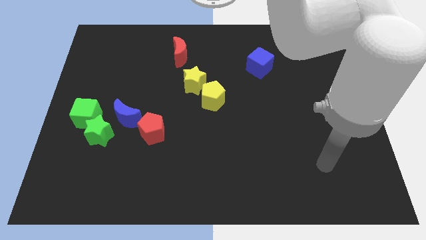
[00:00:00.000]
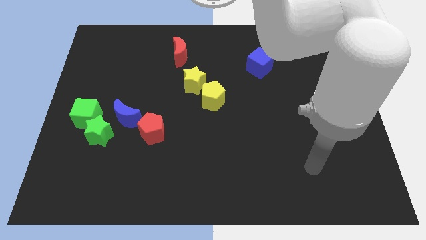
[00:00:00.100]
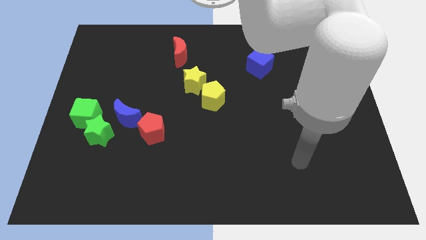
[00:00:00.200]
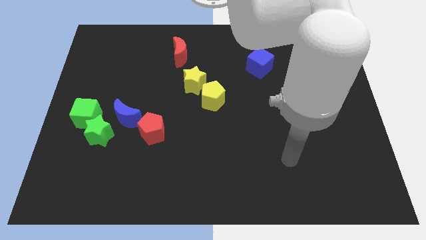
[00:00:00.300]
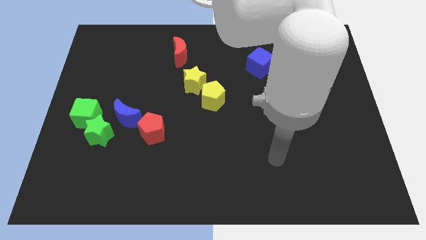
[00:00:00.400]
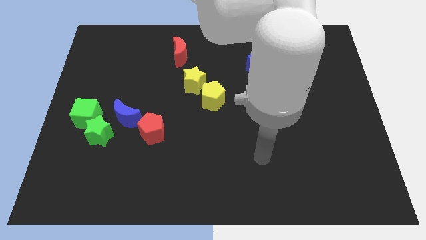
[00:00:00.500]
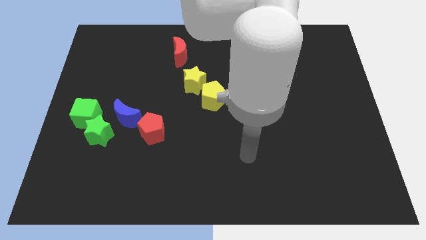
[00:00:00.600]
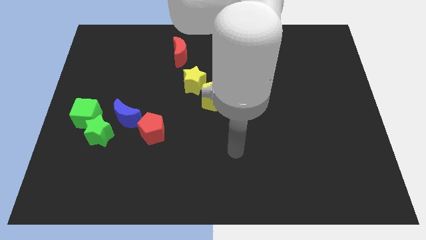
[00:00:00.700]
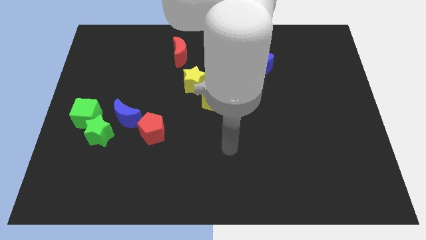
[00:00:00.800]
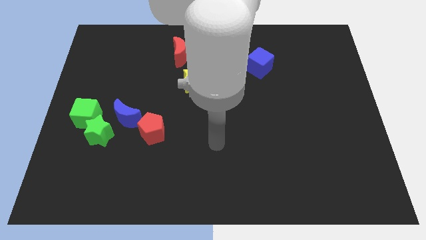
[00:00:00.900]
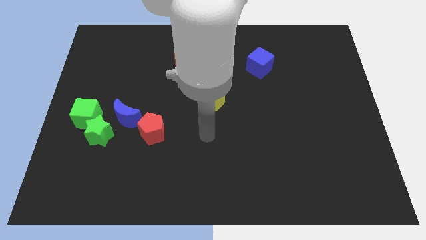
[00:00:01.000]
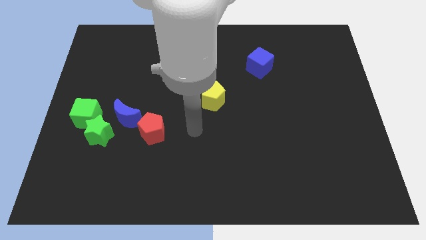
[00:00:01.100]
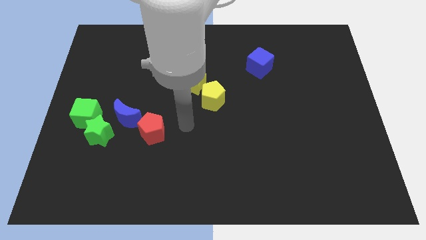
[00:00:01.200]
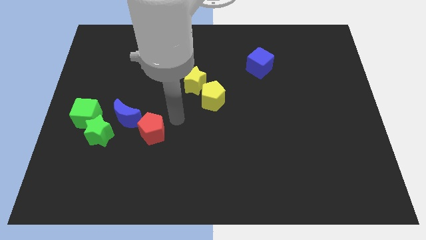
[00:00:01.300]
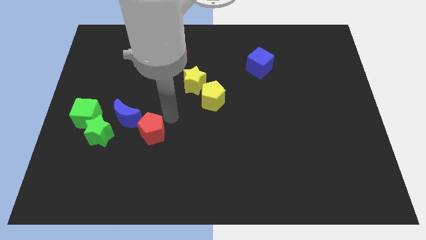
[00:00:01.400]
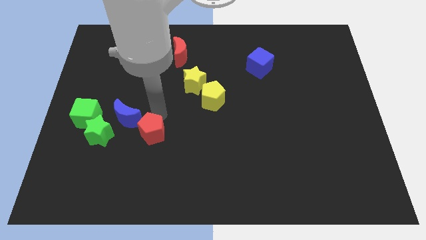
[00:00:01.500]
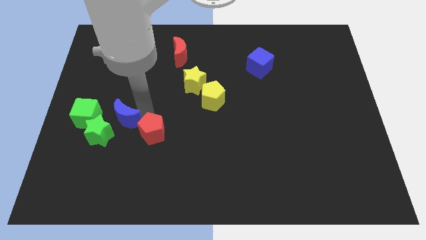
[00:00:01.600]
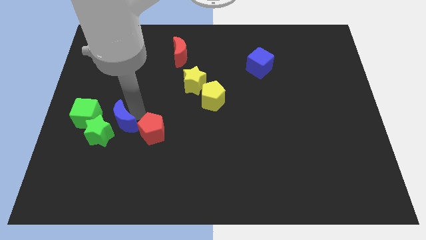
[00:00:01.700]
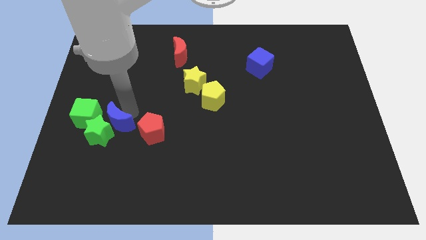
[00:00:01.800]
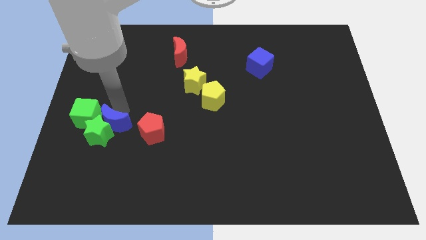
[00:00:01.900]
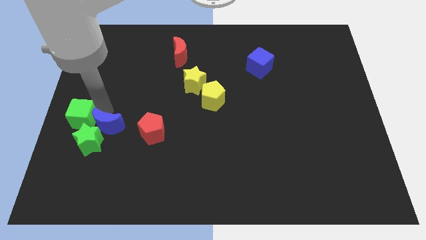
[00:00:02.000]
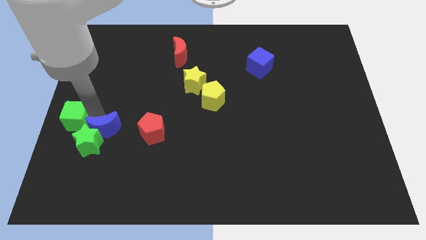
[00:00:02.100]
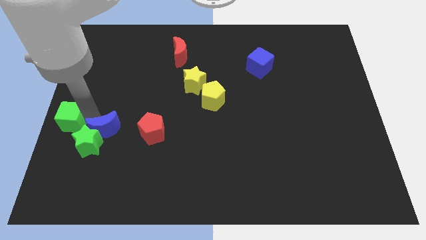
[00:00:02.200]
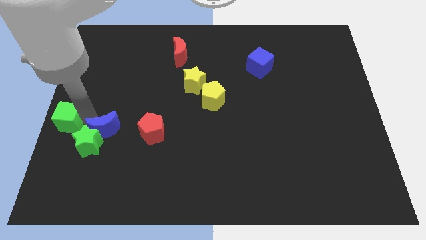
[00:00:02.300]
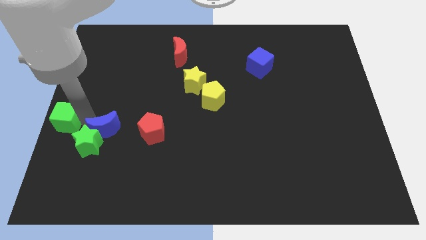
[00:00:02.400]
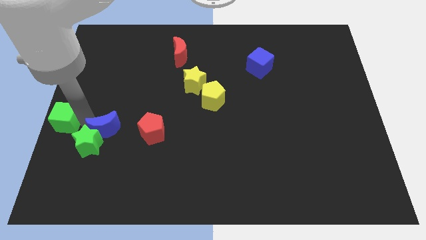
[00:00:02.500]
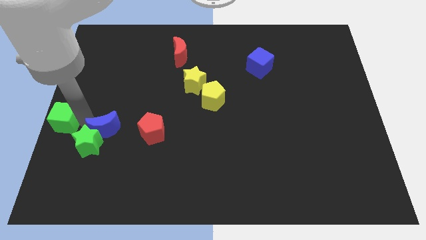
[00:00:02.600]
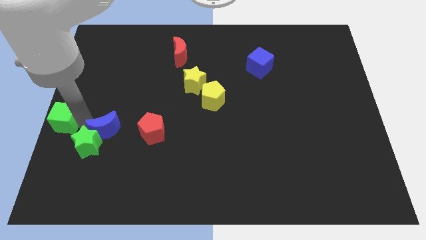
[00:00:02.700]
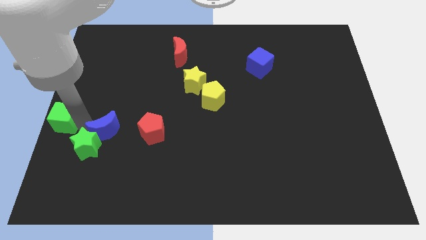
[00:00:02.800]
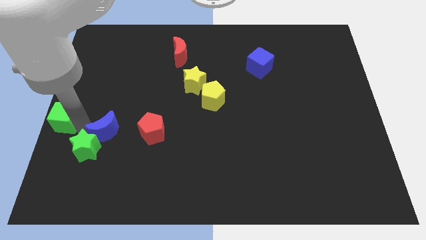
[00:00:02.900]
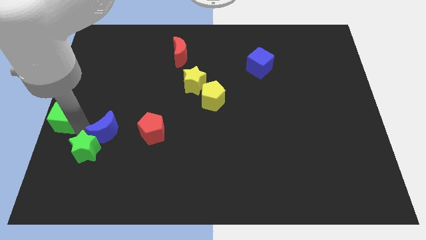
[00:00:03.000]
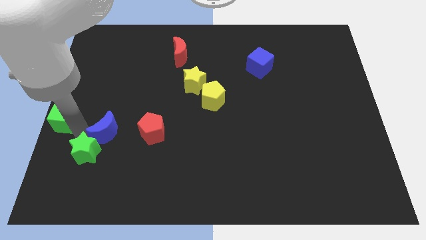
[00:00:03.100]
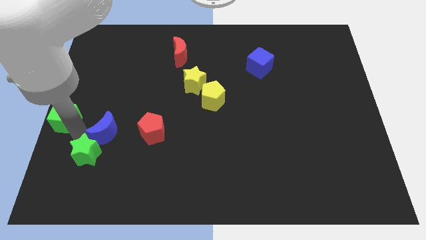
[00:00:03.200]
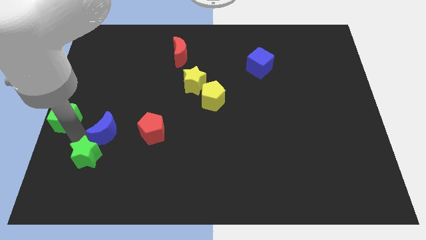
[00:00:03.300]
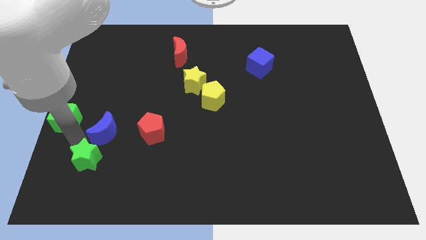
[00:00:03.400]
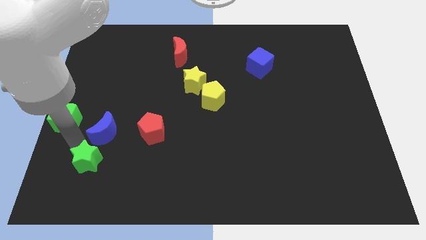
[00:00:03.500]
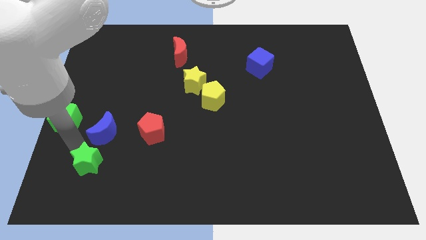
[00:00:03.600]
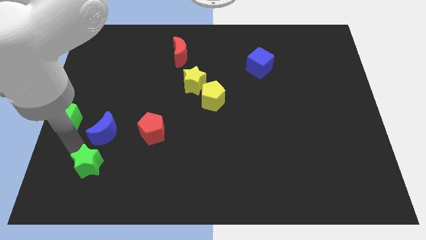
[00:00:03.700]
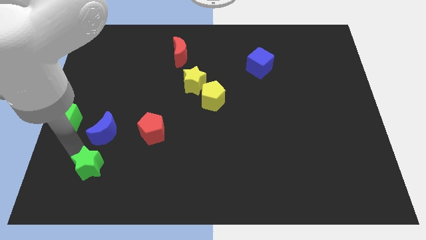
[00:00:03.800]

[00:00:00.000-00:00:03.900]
separate the green star from the green cube and blue moon

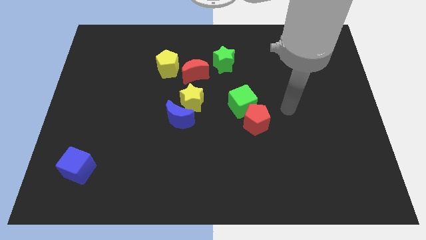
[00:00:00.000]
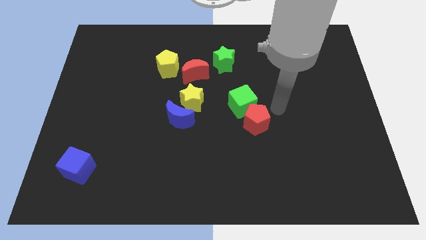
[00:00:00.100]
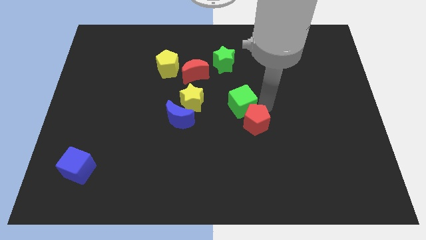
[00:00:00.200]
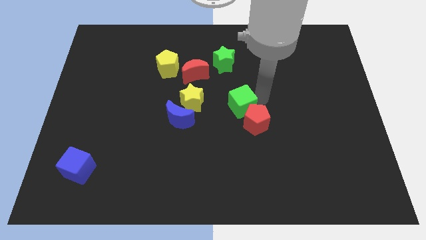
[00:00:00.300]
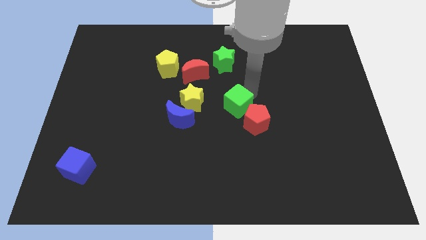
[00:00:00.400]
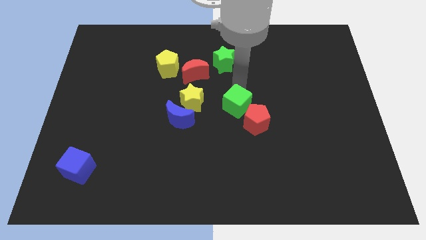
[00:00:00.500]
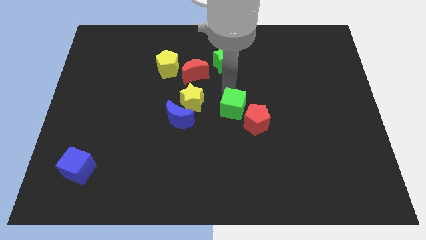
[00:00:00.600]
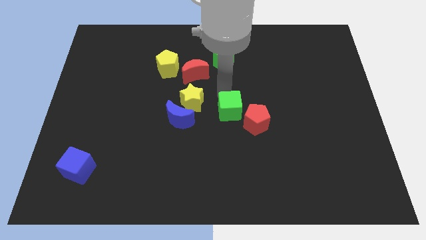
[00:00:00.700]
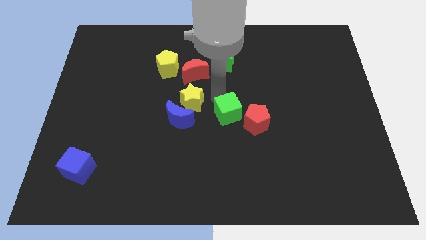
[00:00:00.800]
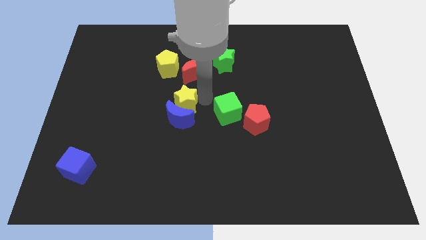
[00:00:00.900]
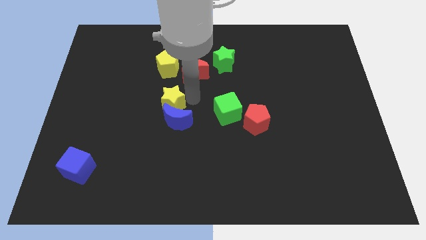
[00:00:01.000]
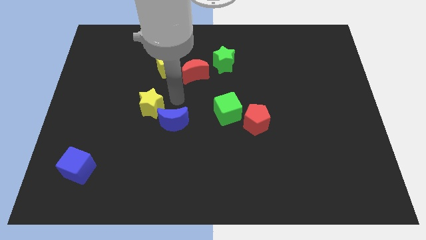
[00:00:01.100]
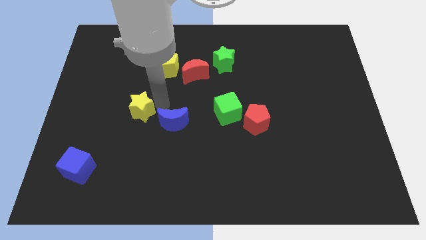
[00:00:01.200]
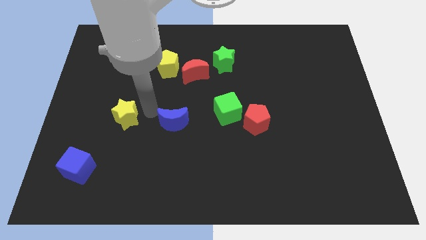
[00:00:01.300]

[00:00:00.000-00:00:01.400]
move the blue moon away from the yellow star

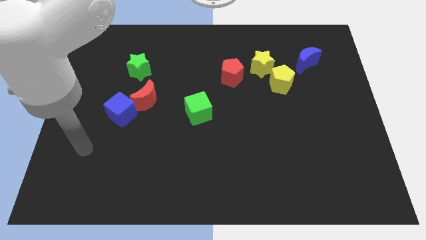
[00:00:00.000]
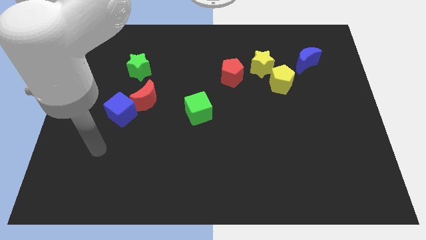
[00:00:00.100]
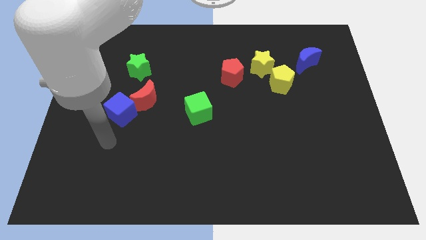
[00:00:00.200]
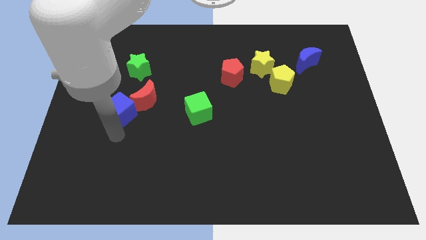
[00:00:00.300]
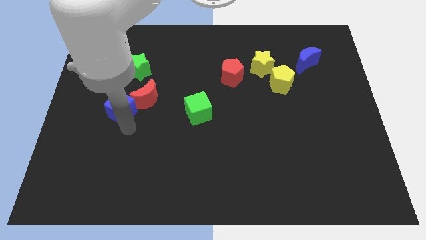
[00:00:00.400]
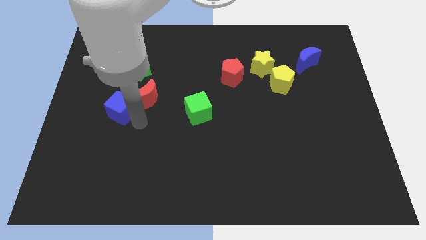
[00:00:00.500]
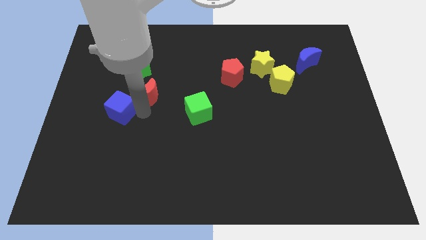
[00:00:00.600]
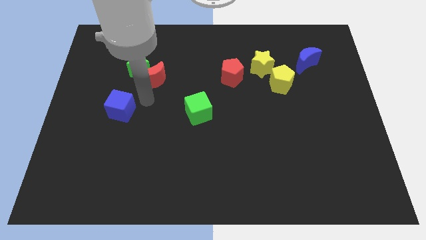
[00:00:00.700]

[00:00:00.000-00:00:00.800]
separate the blue cube from the red moon

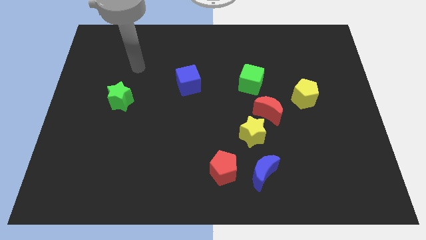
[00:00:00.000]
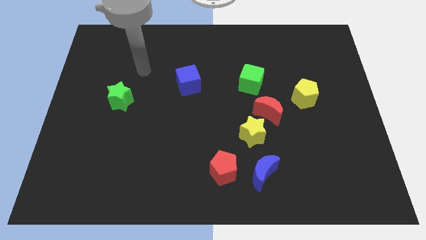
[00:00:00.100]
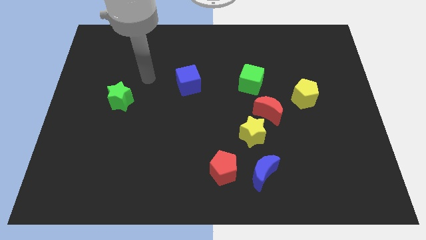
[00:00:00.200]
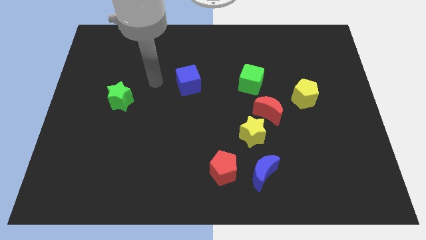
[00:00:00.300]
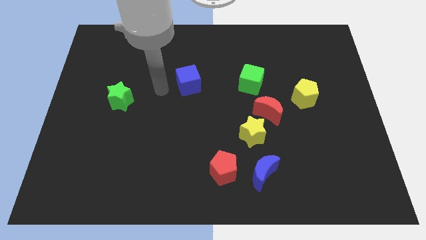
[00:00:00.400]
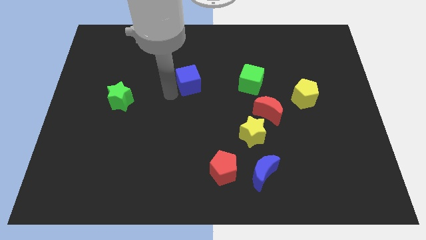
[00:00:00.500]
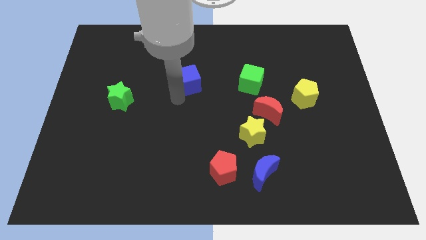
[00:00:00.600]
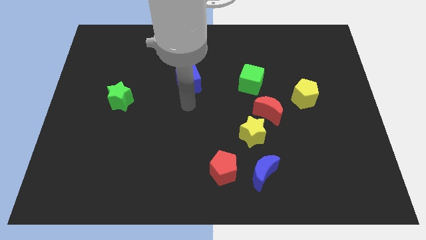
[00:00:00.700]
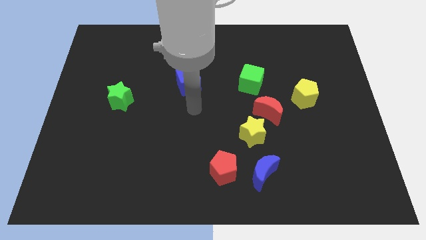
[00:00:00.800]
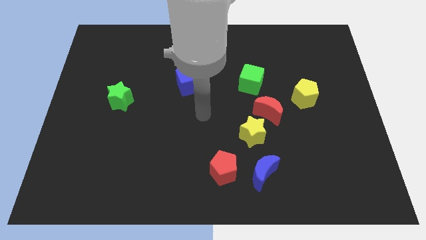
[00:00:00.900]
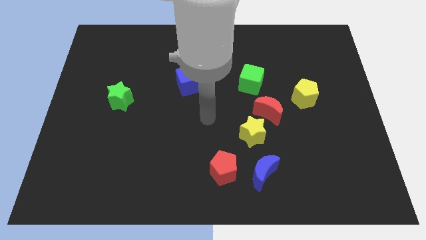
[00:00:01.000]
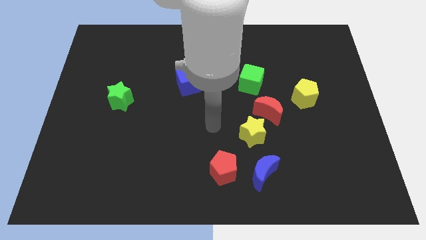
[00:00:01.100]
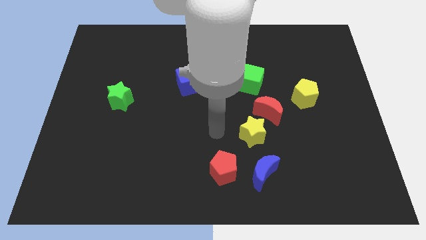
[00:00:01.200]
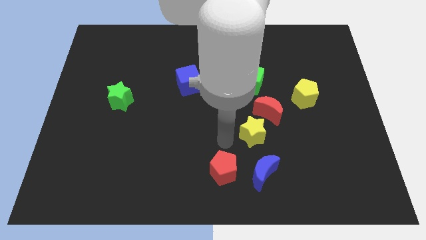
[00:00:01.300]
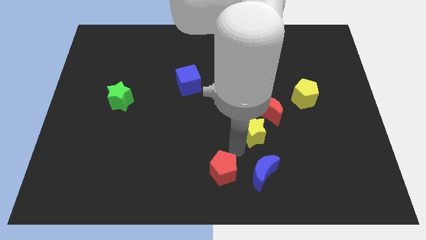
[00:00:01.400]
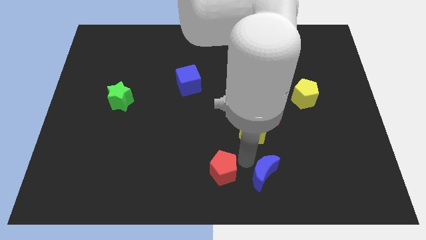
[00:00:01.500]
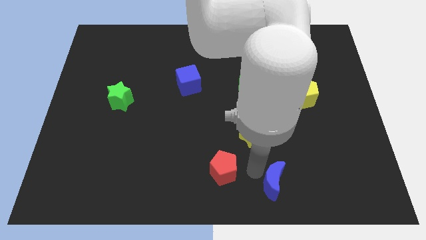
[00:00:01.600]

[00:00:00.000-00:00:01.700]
pull the red pentagon apart from the blue moon

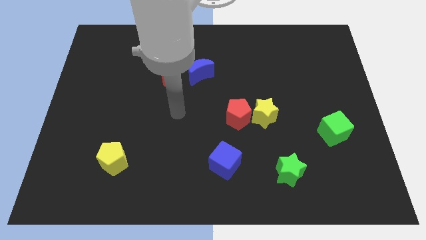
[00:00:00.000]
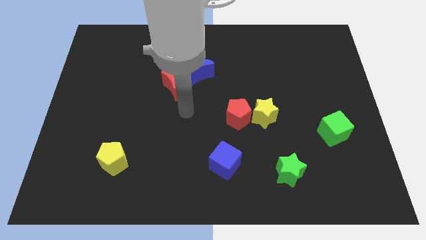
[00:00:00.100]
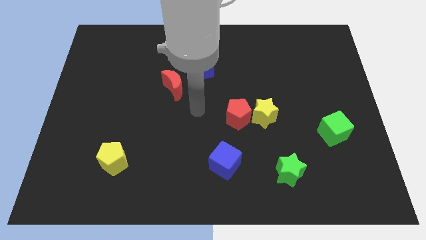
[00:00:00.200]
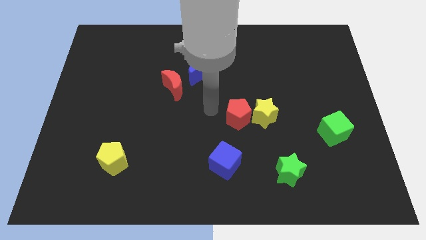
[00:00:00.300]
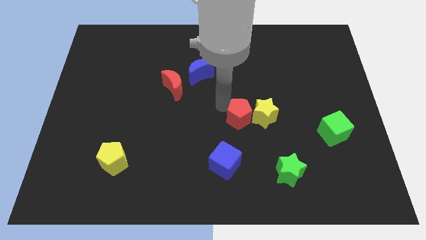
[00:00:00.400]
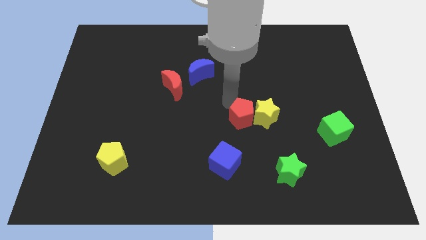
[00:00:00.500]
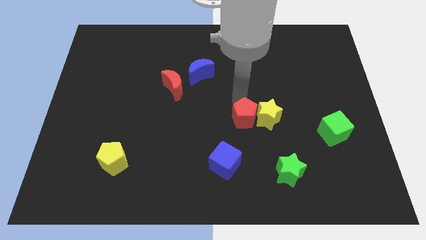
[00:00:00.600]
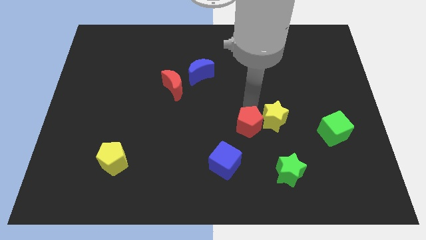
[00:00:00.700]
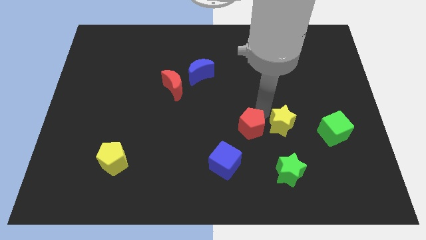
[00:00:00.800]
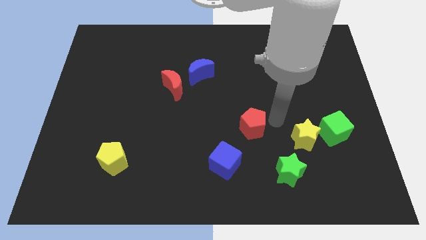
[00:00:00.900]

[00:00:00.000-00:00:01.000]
move the red pentagon away from the yellow star

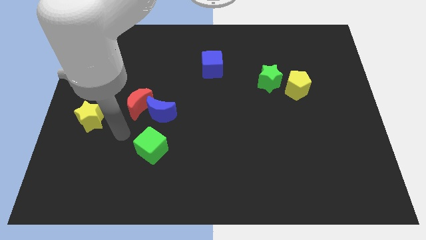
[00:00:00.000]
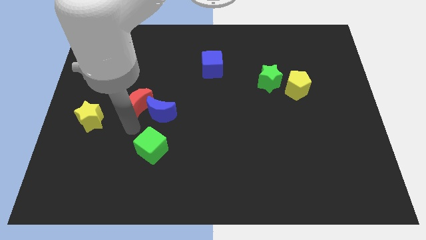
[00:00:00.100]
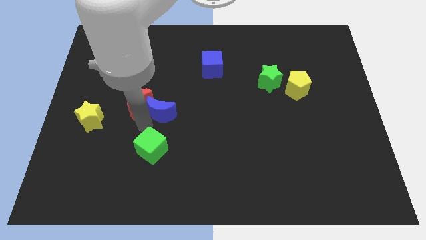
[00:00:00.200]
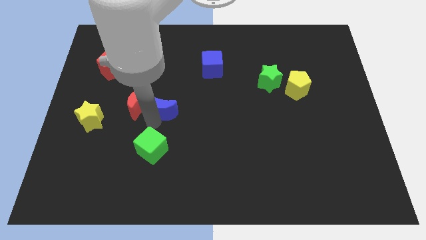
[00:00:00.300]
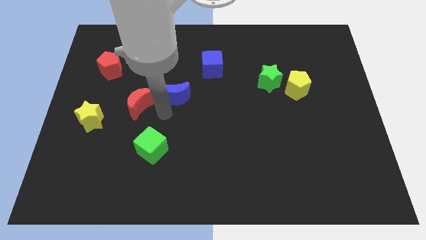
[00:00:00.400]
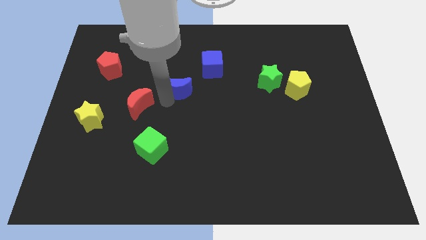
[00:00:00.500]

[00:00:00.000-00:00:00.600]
pull the red moon apart from the blue moon
